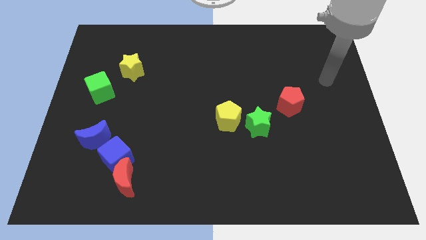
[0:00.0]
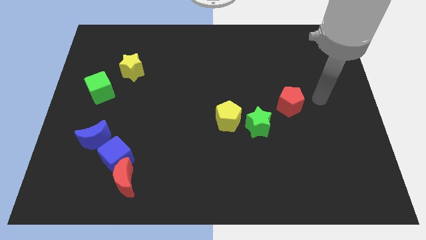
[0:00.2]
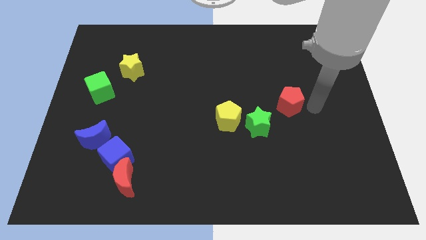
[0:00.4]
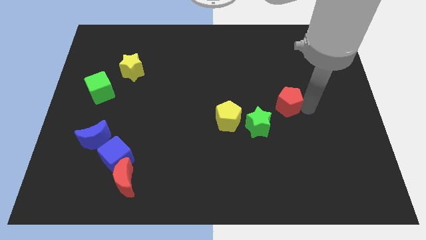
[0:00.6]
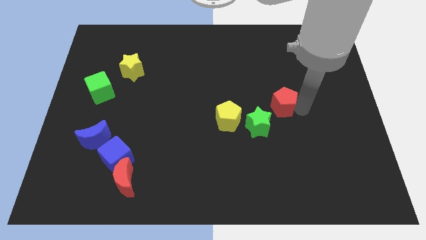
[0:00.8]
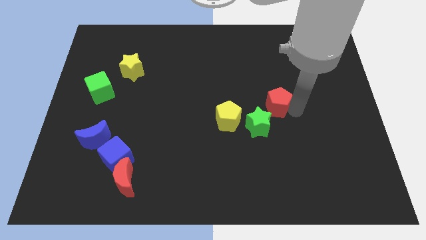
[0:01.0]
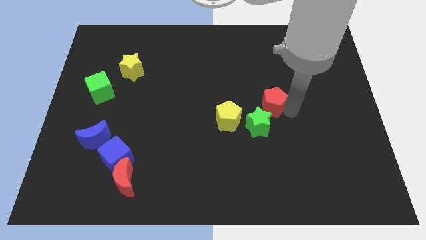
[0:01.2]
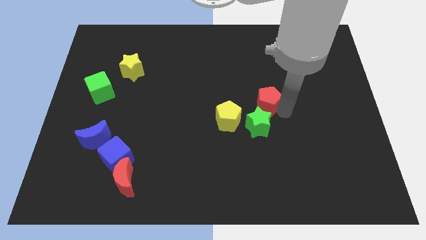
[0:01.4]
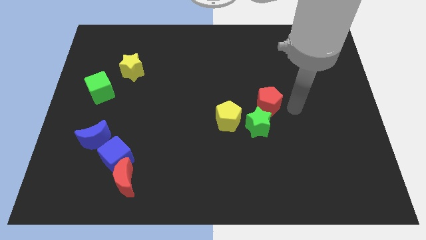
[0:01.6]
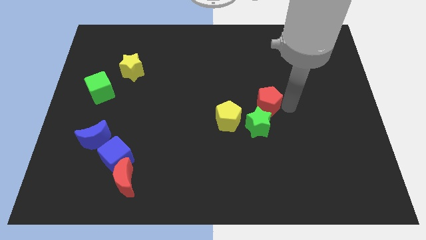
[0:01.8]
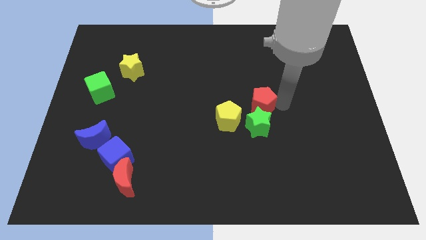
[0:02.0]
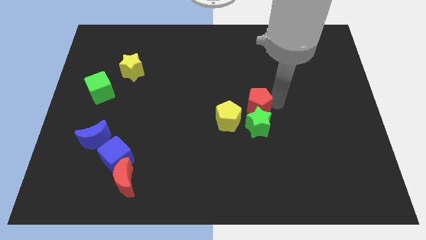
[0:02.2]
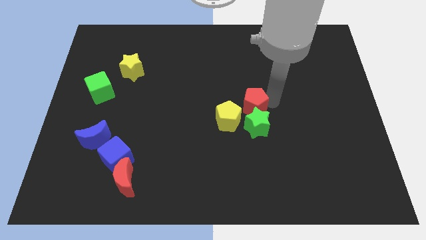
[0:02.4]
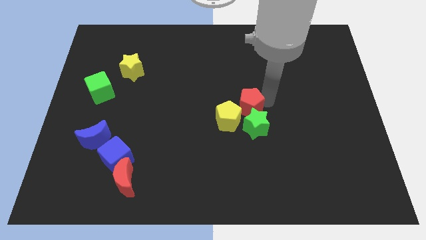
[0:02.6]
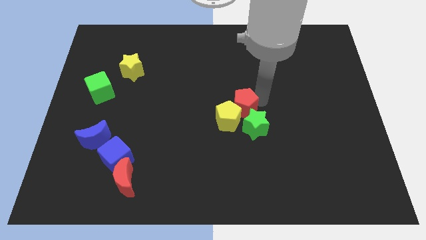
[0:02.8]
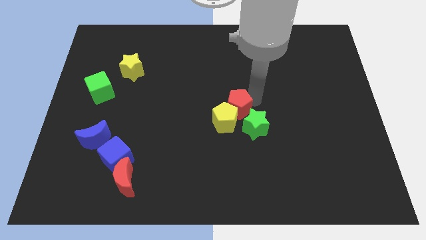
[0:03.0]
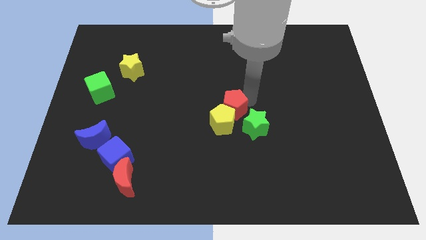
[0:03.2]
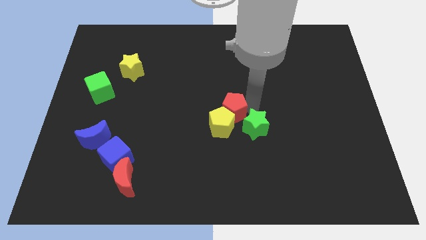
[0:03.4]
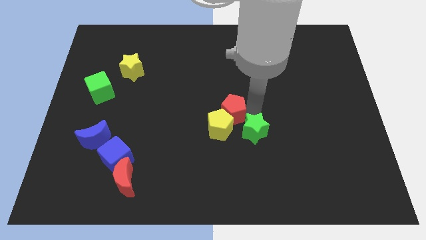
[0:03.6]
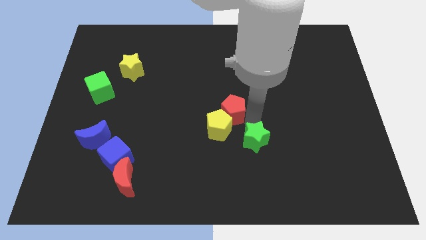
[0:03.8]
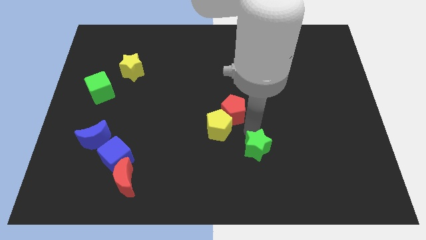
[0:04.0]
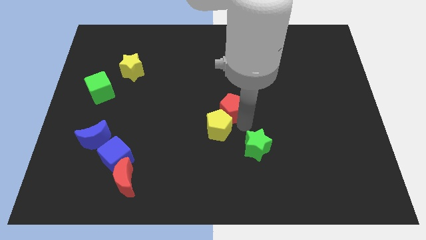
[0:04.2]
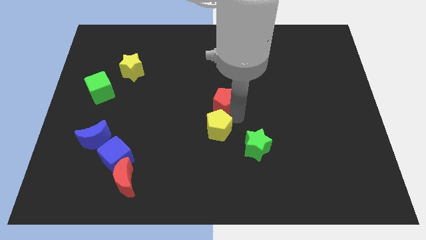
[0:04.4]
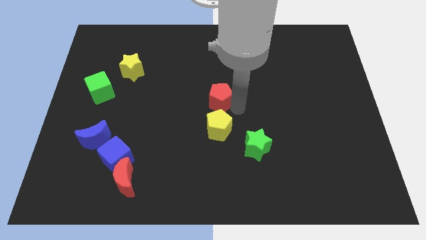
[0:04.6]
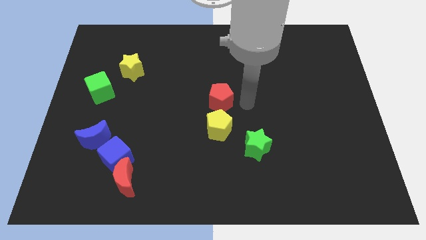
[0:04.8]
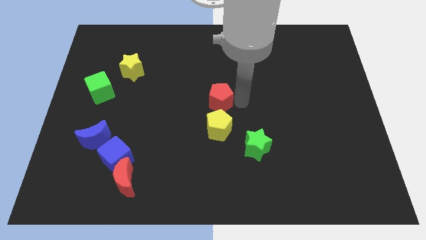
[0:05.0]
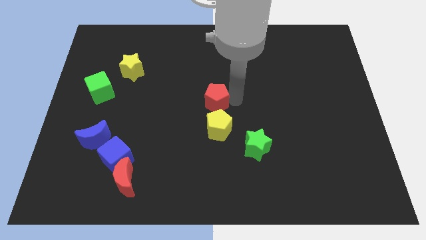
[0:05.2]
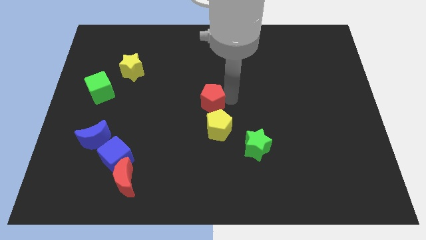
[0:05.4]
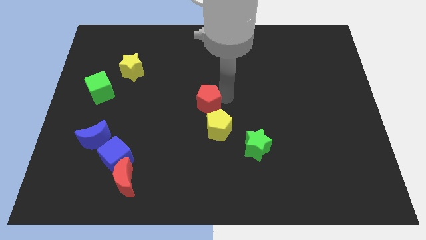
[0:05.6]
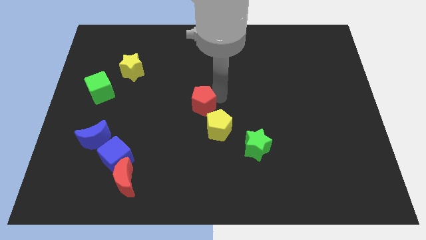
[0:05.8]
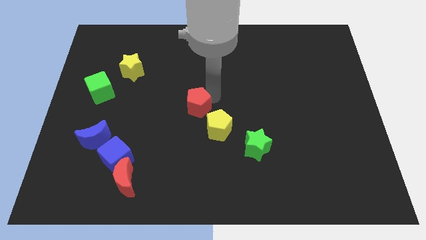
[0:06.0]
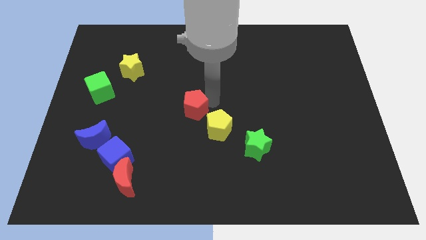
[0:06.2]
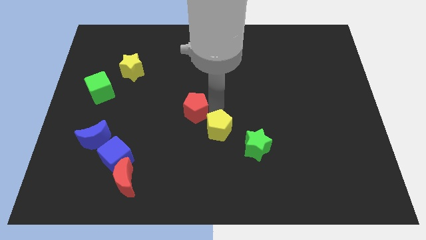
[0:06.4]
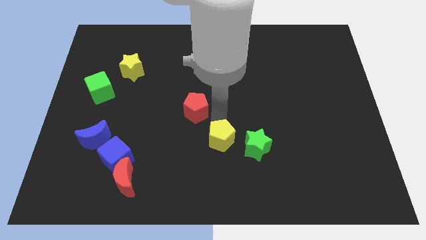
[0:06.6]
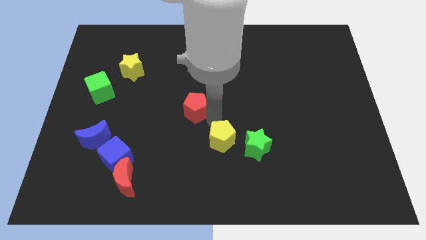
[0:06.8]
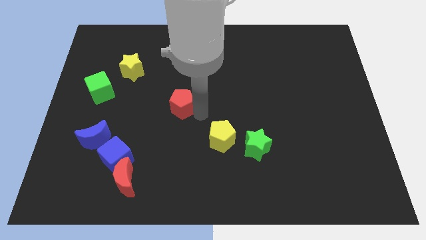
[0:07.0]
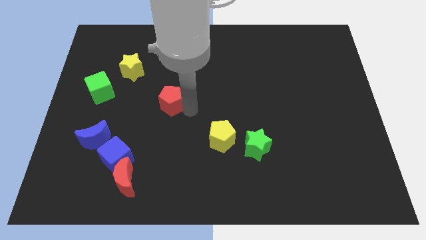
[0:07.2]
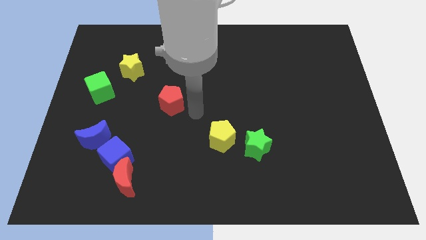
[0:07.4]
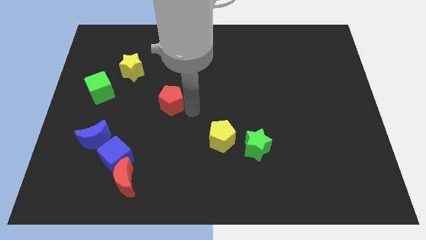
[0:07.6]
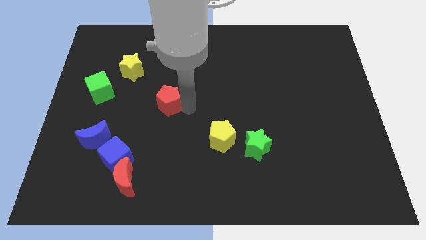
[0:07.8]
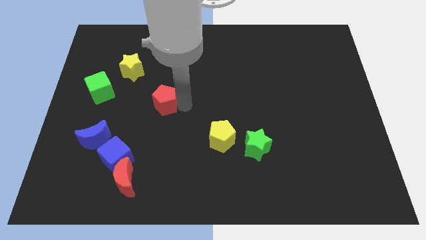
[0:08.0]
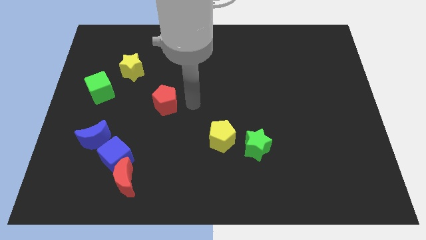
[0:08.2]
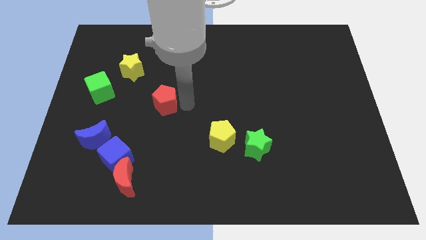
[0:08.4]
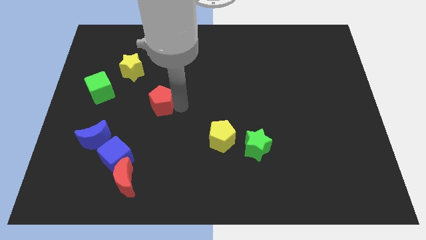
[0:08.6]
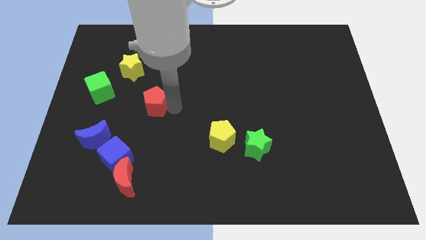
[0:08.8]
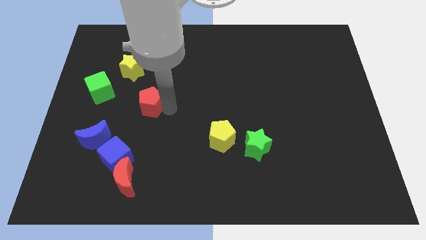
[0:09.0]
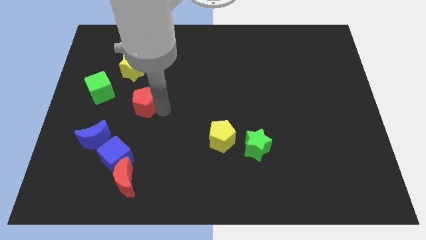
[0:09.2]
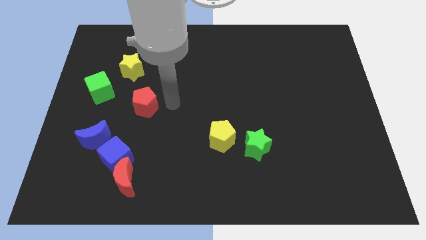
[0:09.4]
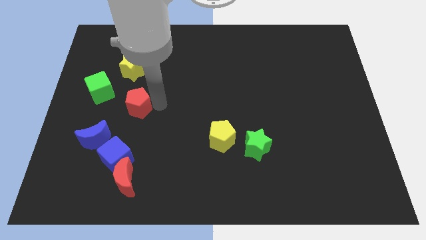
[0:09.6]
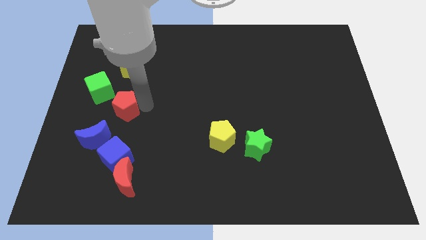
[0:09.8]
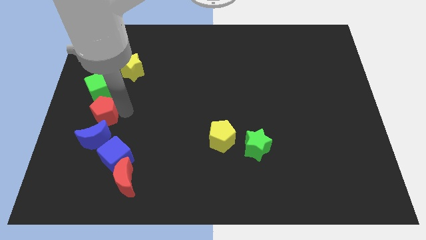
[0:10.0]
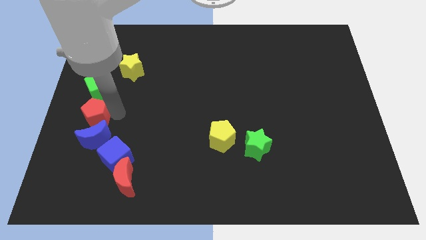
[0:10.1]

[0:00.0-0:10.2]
put the red pentagon to the left side

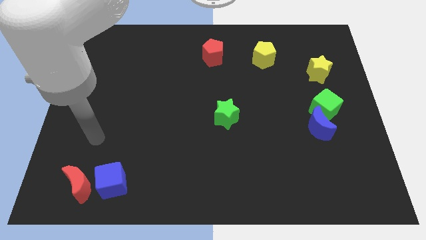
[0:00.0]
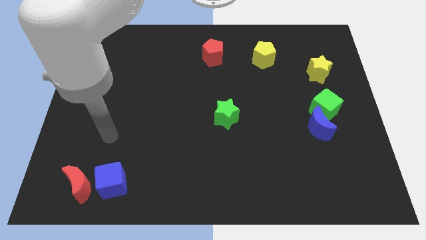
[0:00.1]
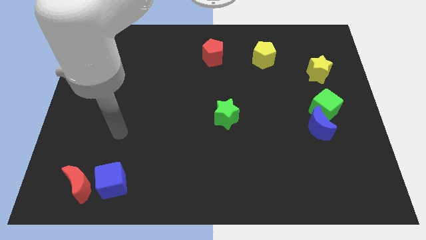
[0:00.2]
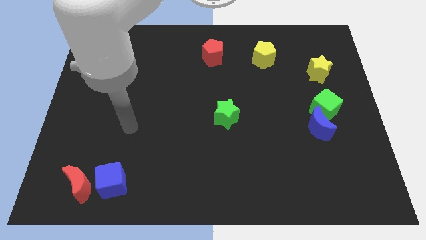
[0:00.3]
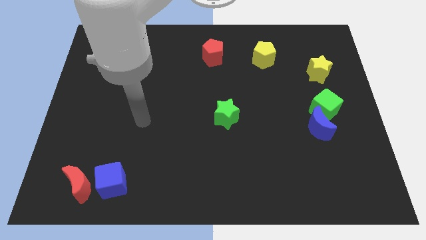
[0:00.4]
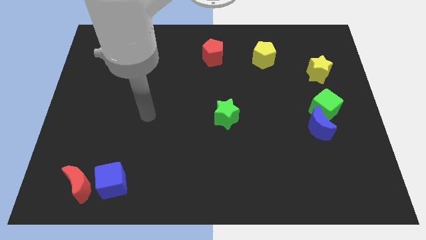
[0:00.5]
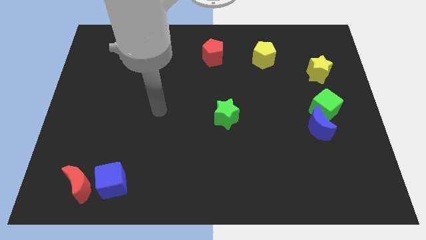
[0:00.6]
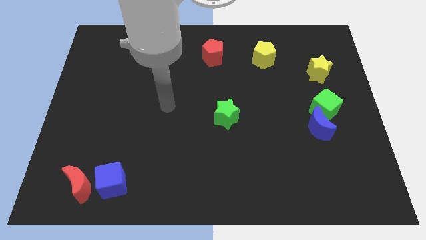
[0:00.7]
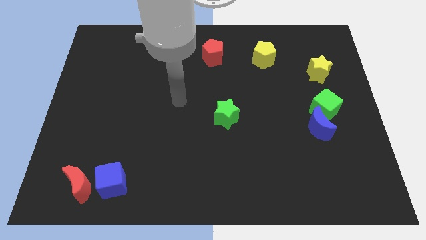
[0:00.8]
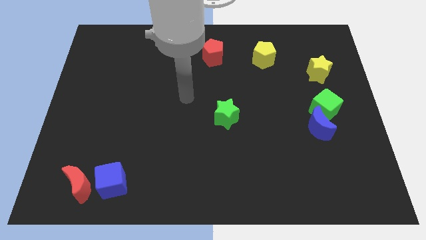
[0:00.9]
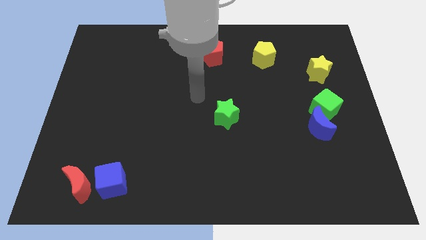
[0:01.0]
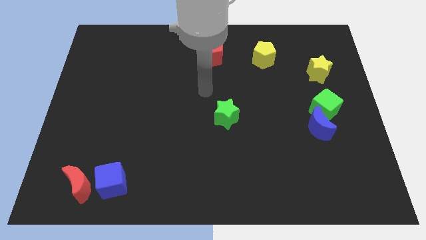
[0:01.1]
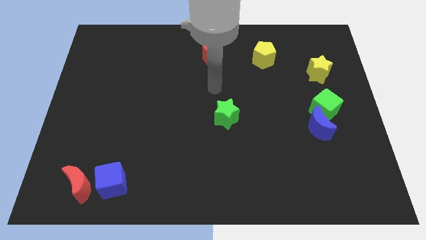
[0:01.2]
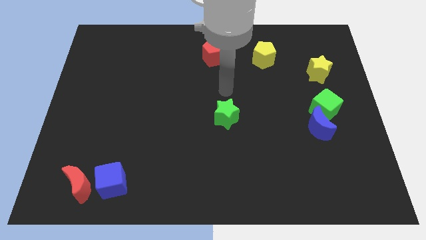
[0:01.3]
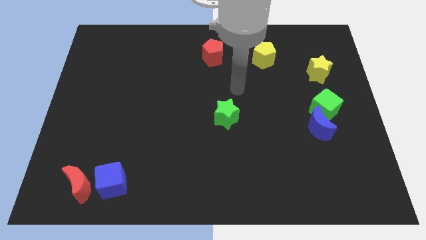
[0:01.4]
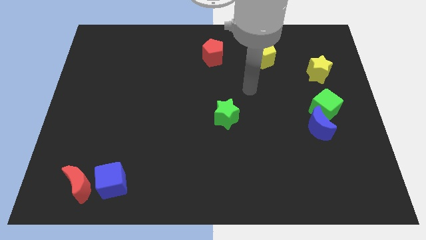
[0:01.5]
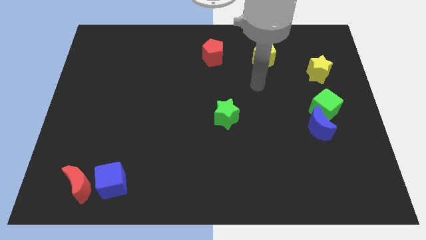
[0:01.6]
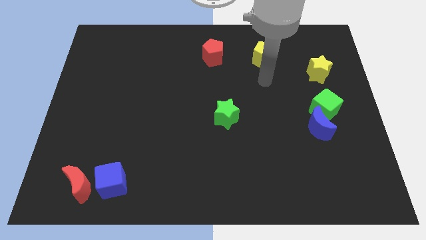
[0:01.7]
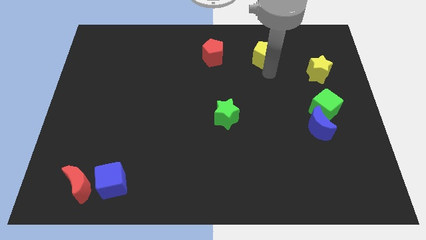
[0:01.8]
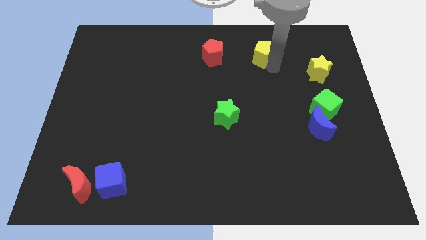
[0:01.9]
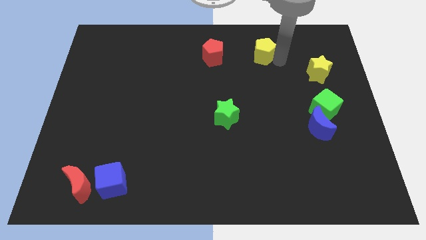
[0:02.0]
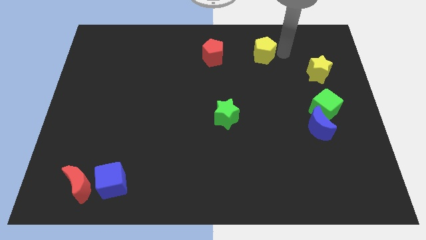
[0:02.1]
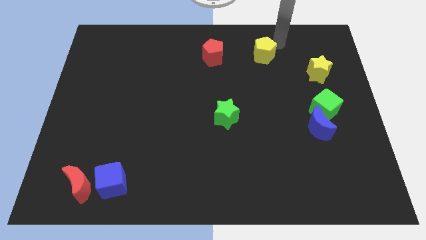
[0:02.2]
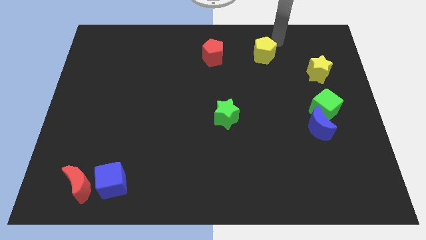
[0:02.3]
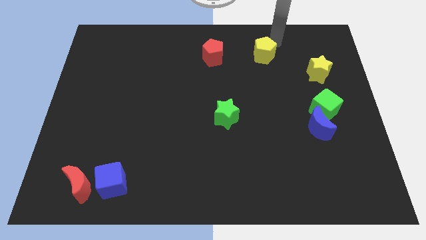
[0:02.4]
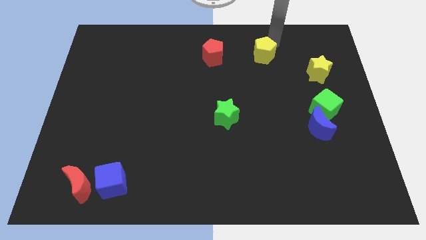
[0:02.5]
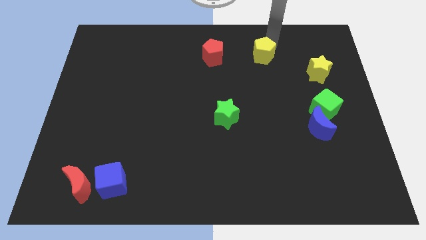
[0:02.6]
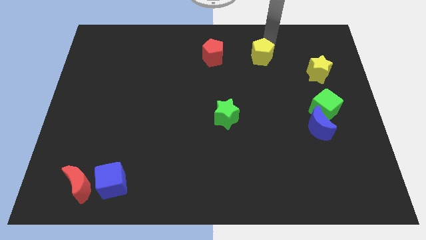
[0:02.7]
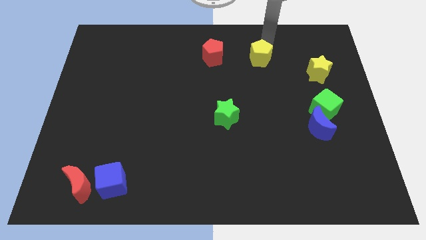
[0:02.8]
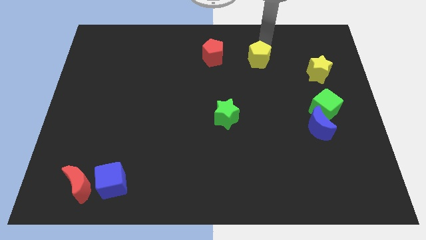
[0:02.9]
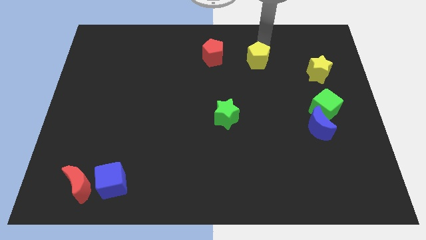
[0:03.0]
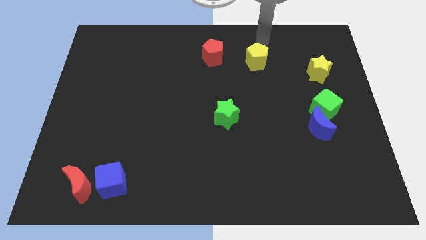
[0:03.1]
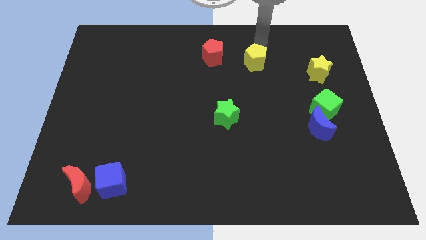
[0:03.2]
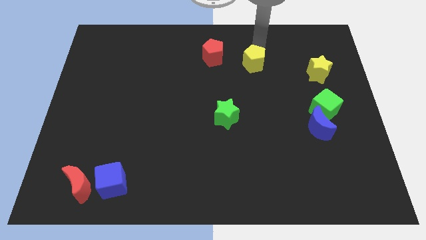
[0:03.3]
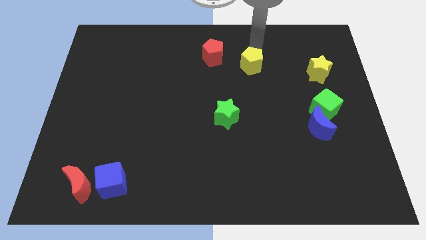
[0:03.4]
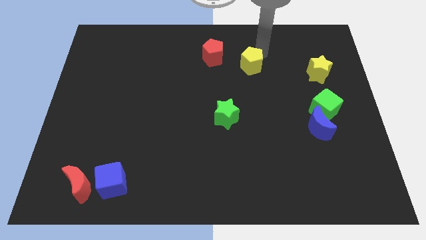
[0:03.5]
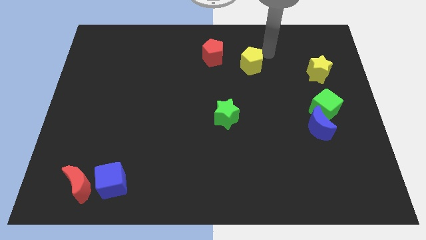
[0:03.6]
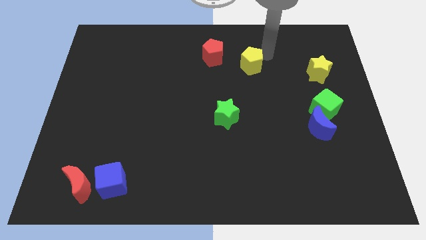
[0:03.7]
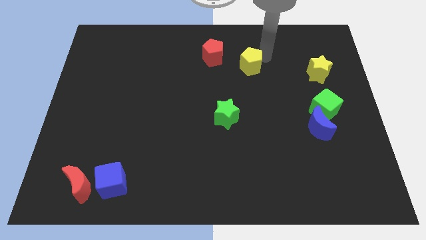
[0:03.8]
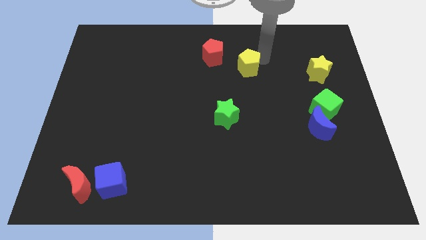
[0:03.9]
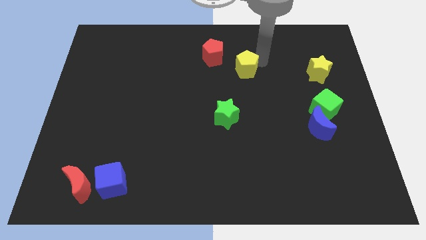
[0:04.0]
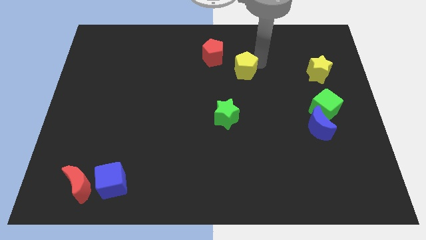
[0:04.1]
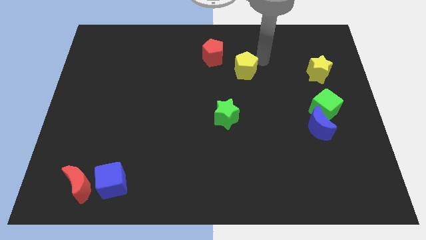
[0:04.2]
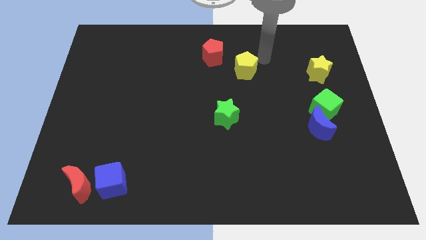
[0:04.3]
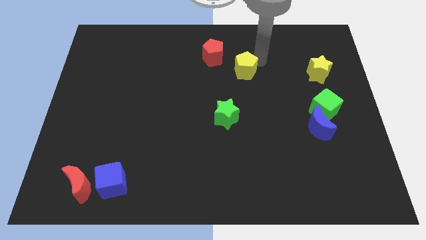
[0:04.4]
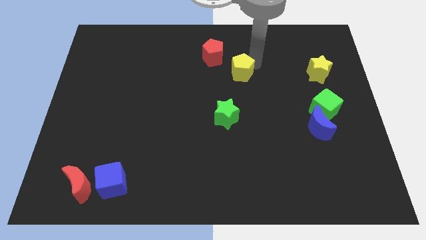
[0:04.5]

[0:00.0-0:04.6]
put the yellow pentagon to the center of the board
